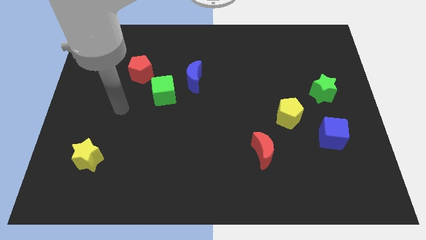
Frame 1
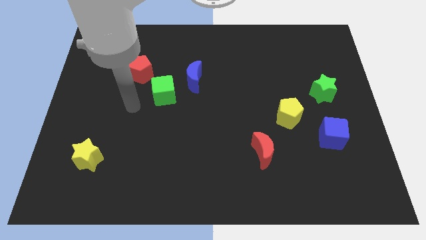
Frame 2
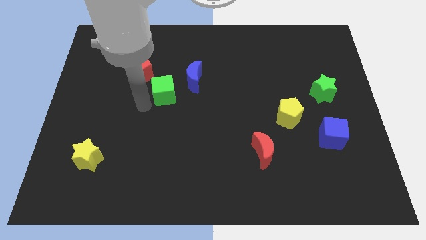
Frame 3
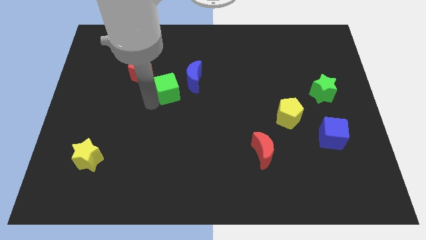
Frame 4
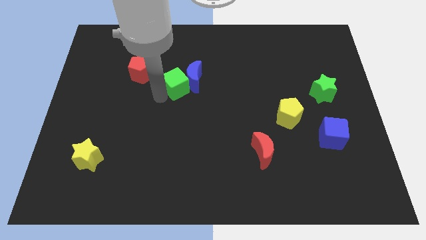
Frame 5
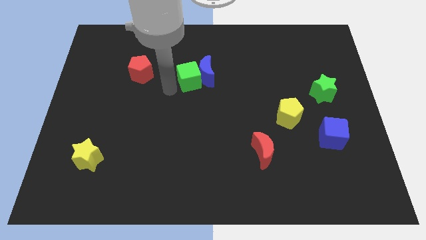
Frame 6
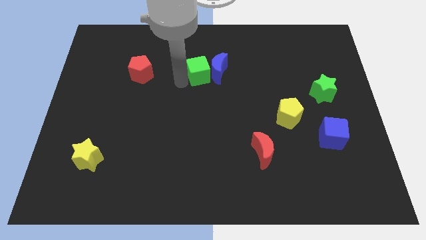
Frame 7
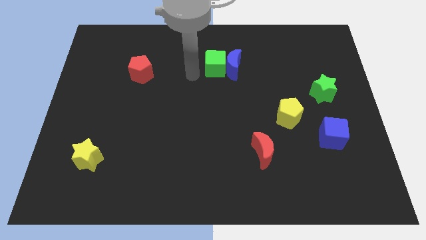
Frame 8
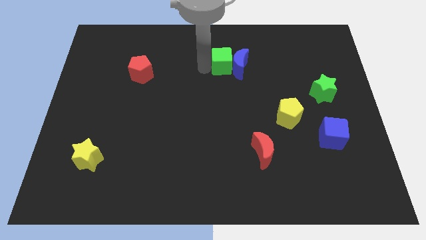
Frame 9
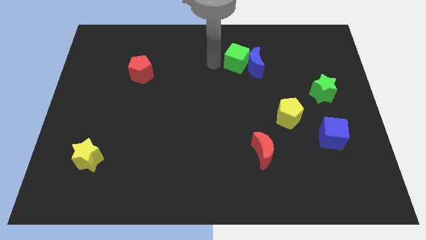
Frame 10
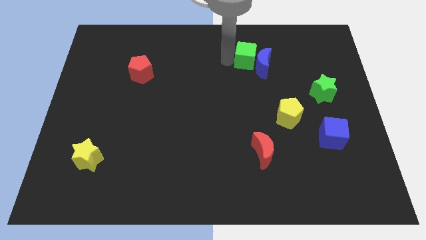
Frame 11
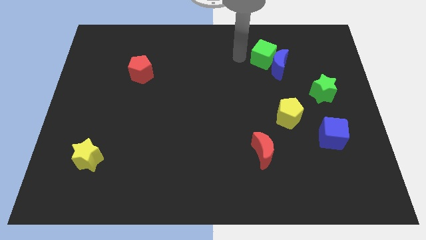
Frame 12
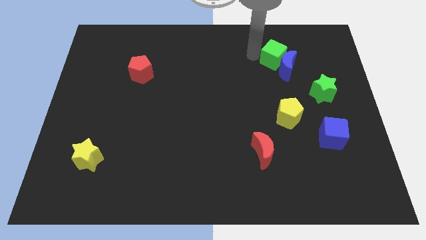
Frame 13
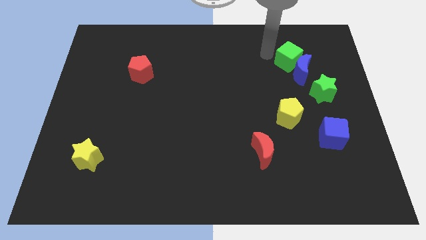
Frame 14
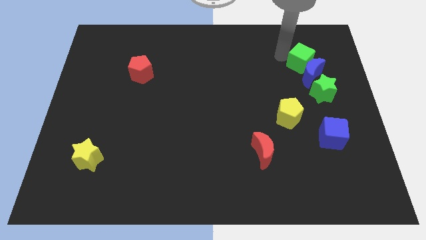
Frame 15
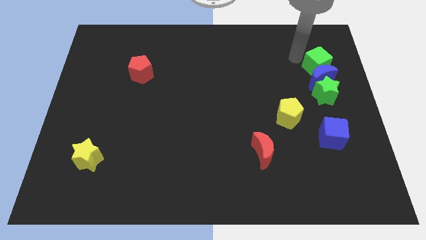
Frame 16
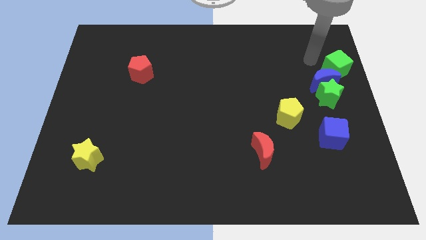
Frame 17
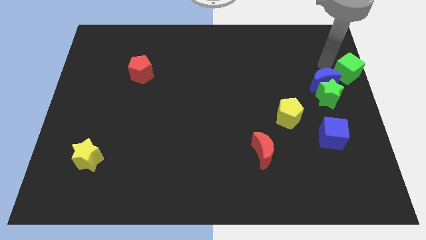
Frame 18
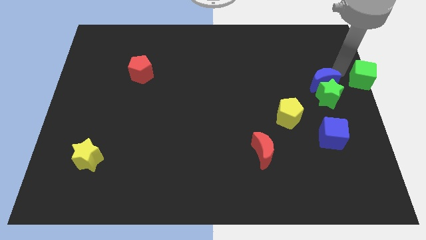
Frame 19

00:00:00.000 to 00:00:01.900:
move the blue moon away from the green cube

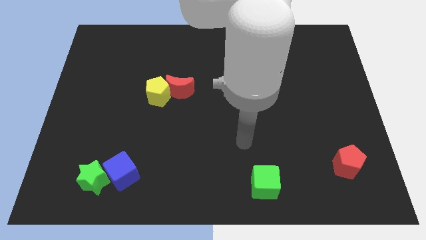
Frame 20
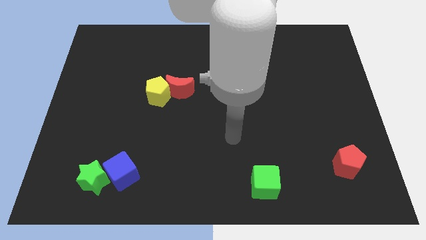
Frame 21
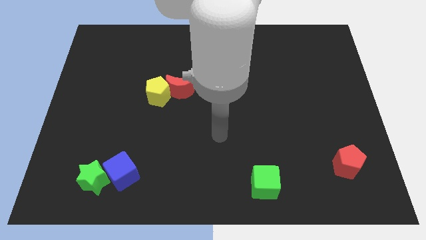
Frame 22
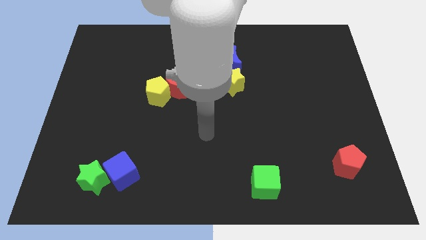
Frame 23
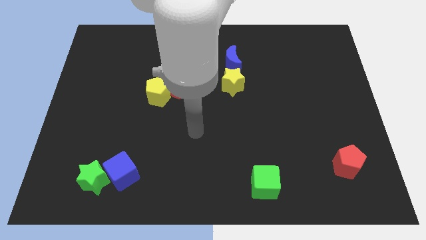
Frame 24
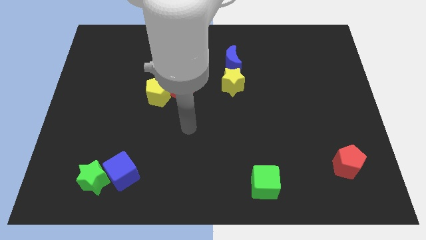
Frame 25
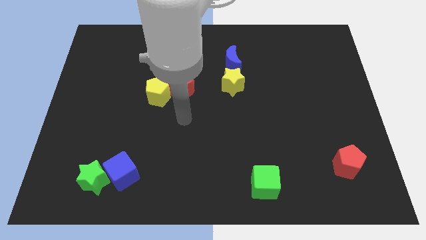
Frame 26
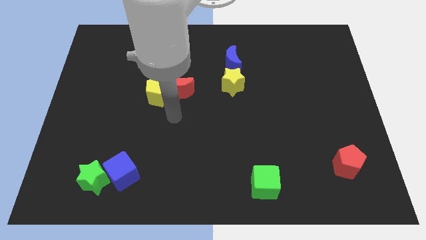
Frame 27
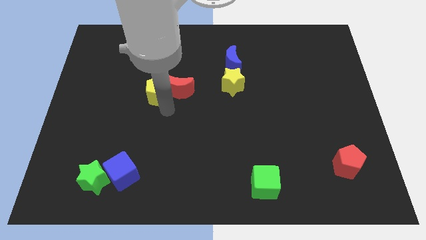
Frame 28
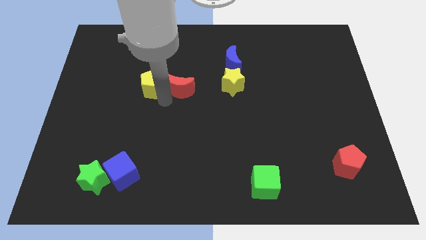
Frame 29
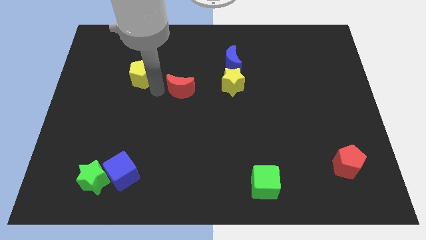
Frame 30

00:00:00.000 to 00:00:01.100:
pull the red moon apart from the yellow pentagon

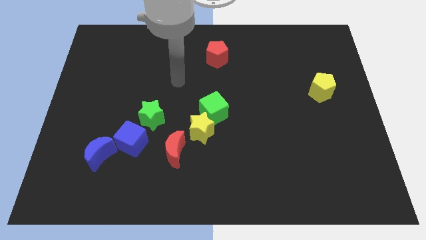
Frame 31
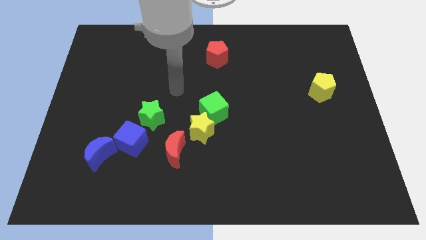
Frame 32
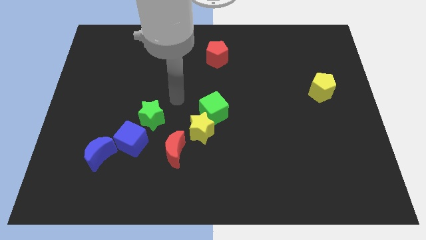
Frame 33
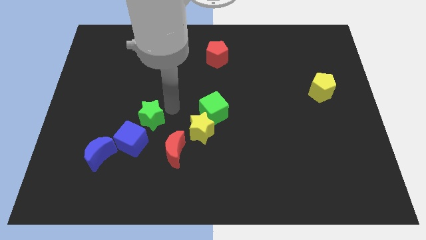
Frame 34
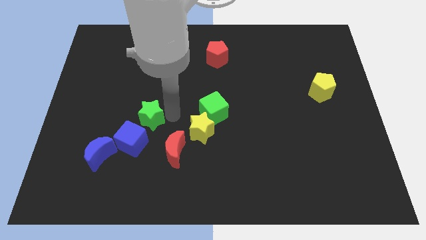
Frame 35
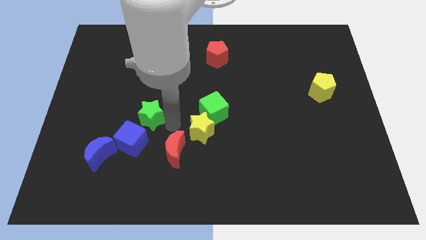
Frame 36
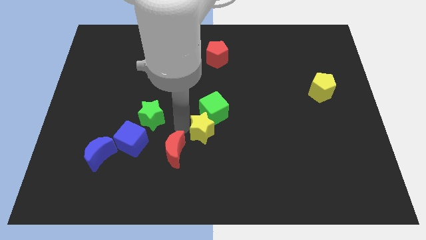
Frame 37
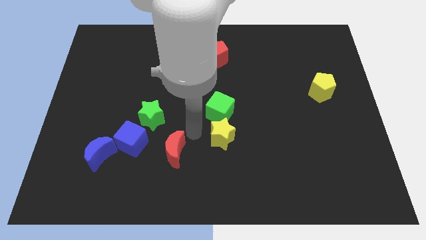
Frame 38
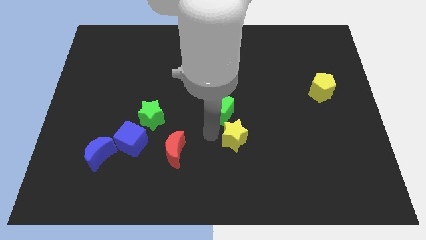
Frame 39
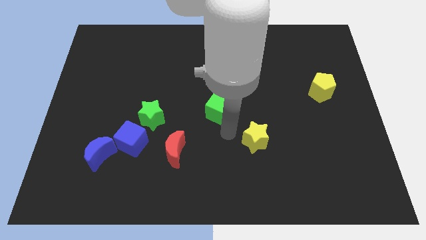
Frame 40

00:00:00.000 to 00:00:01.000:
pull the green cube apart from the yellow star

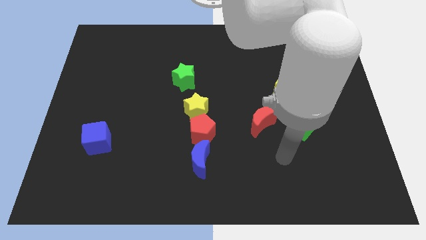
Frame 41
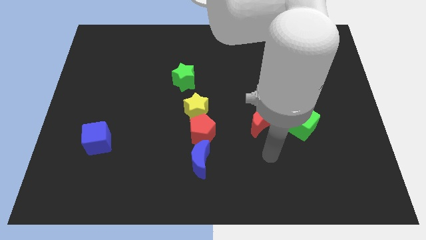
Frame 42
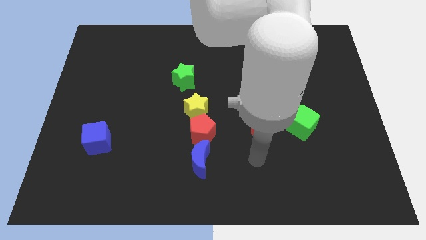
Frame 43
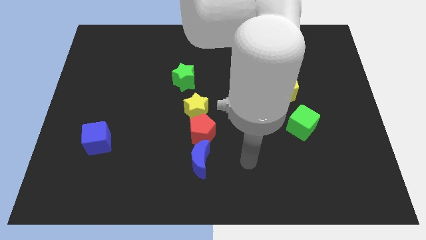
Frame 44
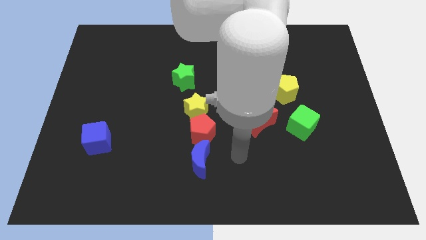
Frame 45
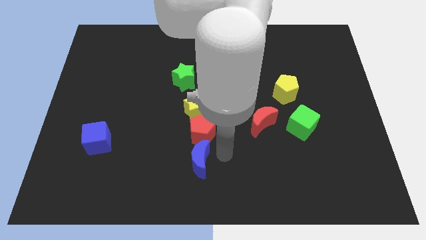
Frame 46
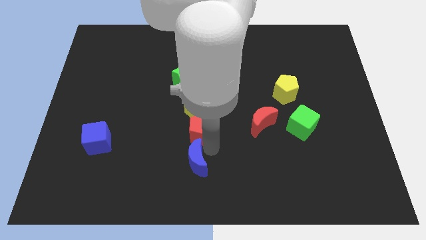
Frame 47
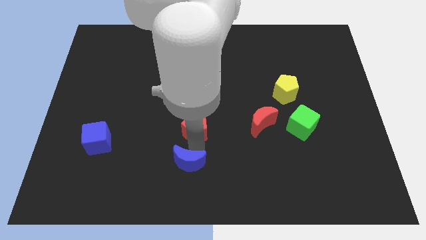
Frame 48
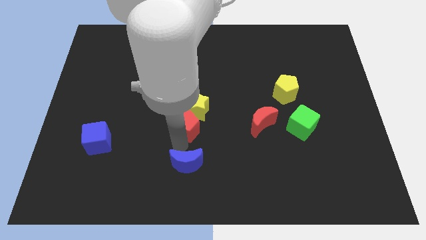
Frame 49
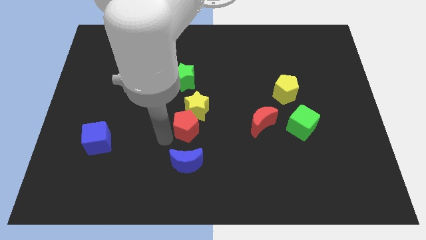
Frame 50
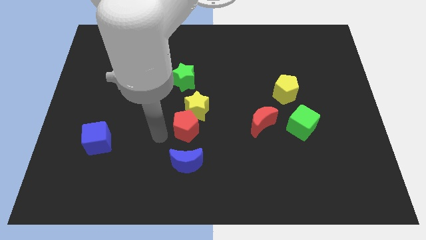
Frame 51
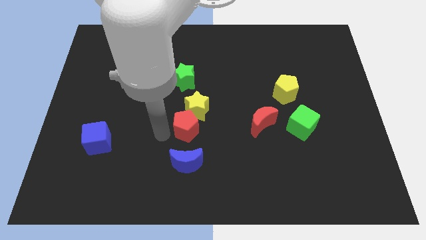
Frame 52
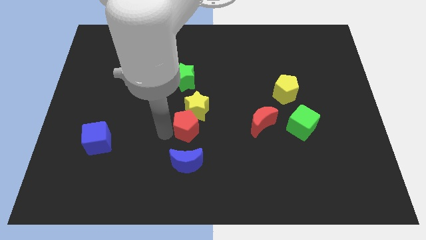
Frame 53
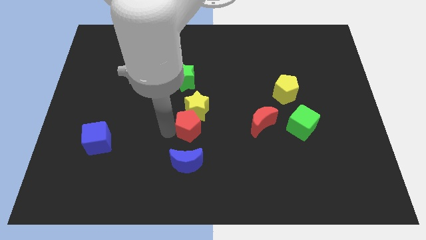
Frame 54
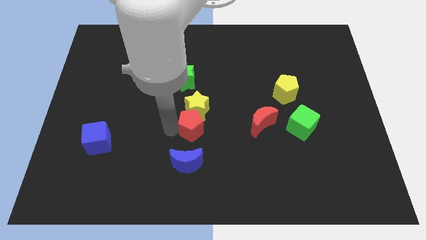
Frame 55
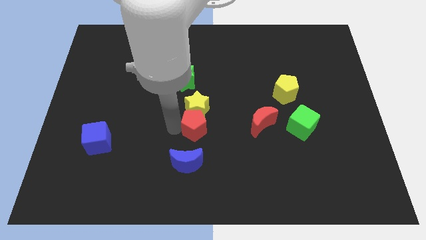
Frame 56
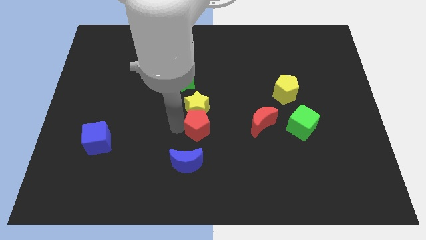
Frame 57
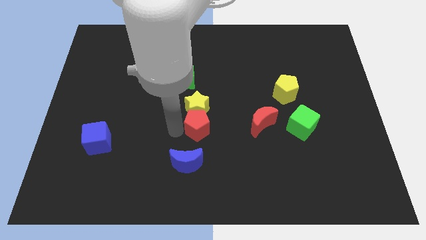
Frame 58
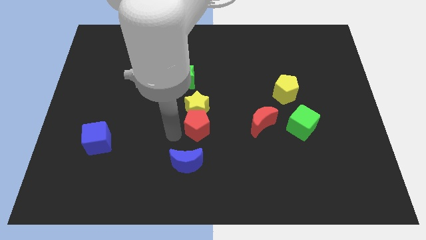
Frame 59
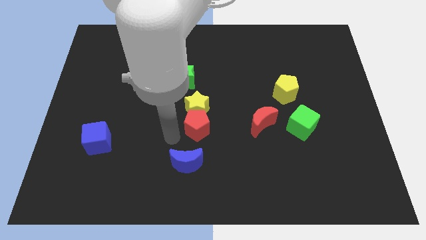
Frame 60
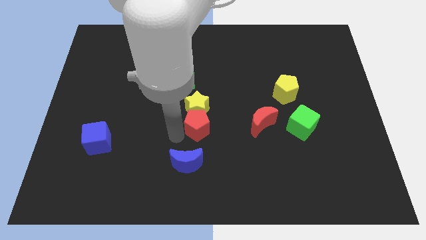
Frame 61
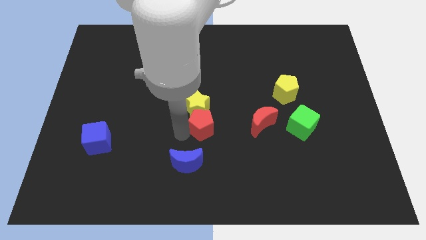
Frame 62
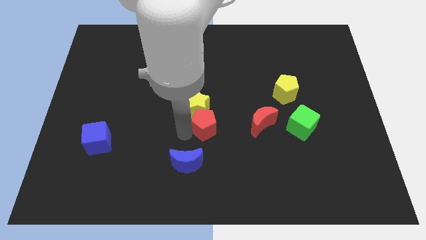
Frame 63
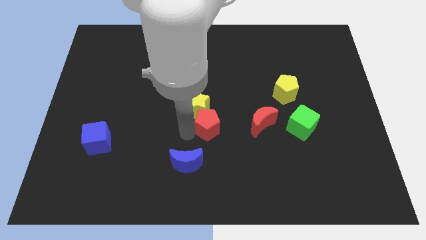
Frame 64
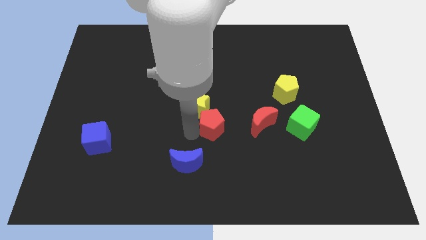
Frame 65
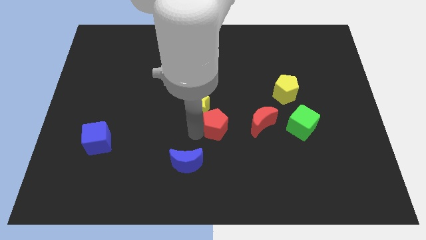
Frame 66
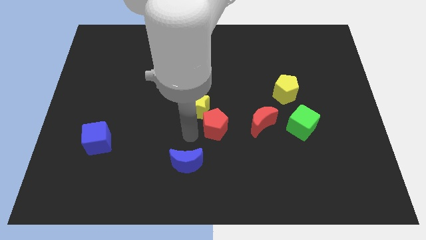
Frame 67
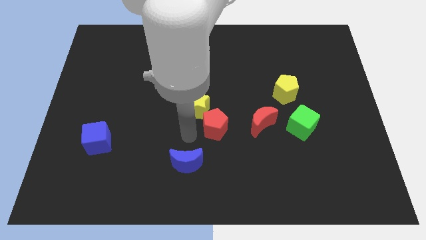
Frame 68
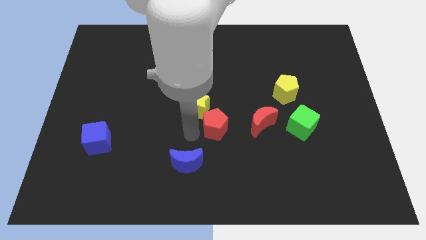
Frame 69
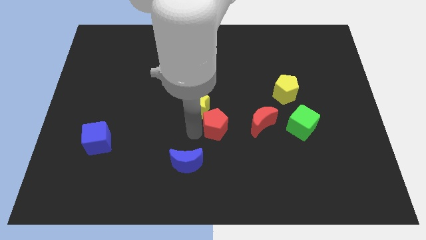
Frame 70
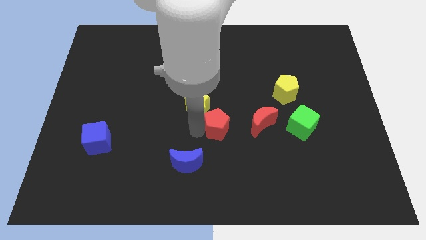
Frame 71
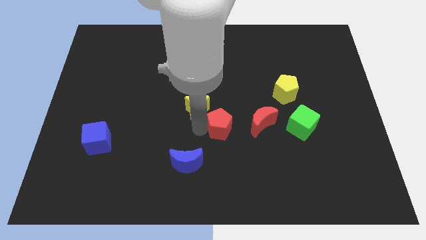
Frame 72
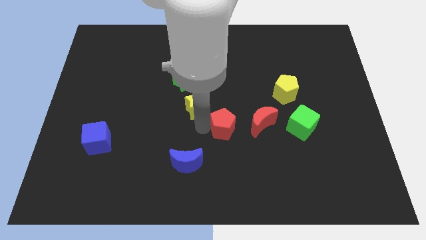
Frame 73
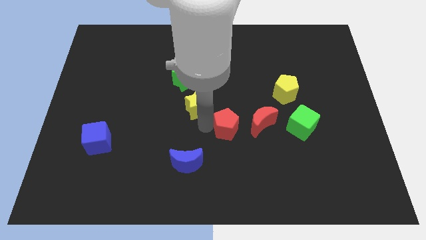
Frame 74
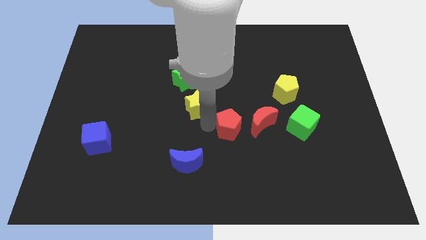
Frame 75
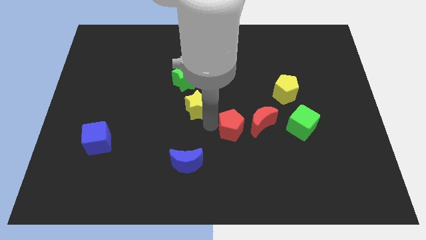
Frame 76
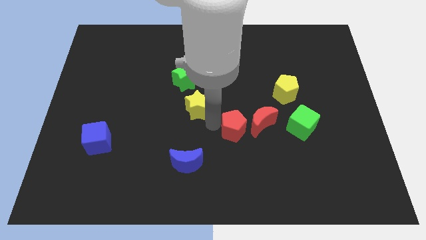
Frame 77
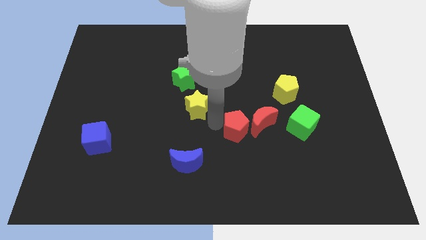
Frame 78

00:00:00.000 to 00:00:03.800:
separate the red pentagon from the yellow star and blue moon

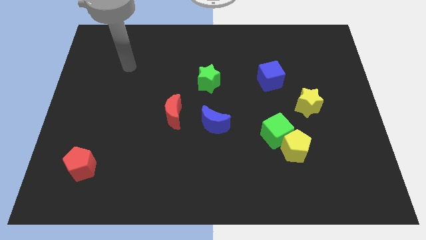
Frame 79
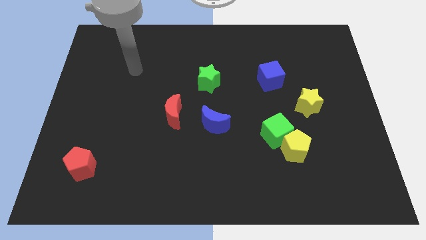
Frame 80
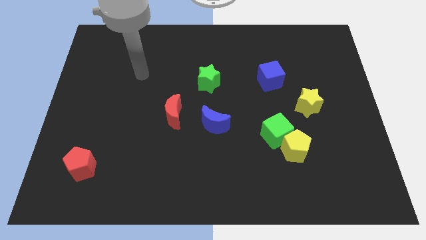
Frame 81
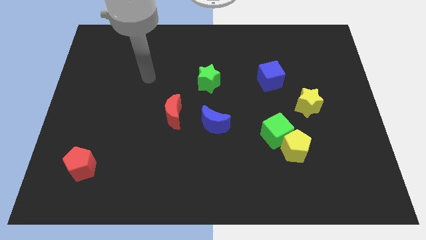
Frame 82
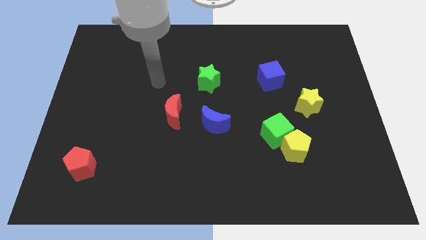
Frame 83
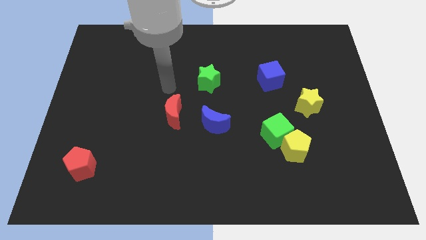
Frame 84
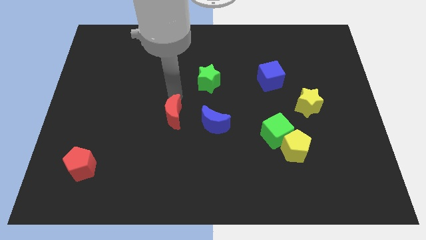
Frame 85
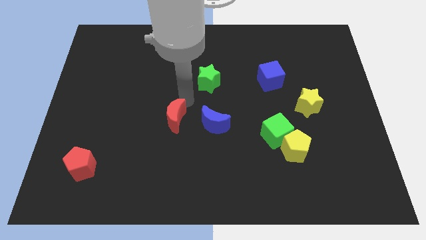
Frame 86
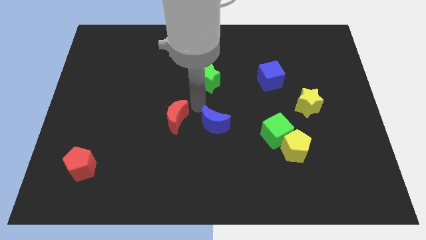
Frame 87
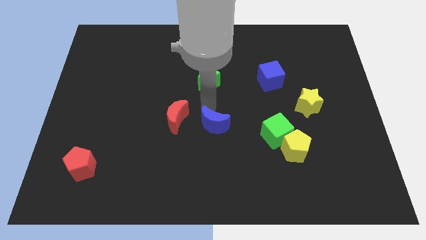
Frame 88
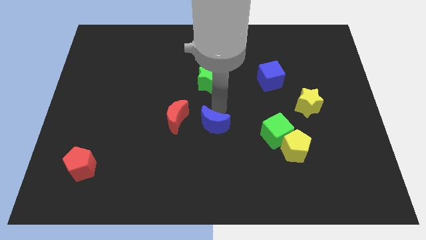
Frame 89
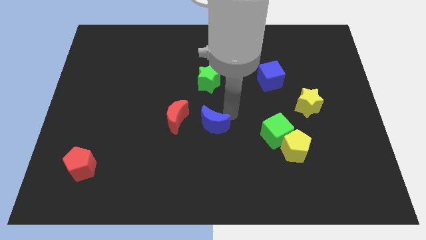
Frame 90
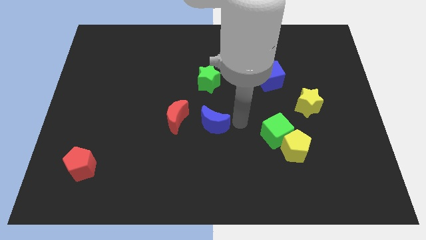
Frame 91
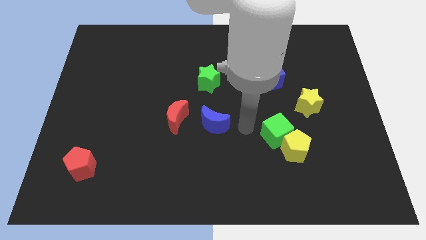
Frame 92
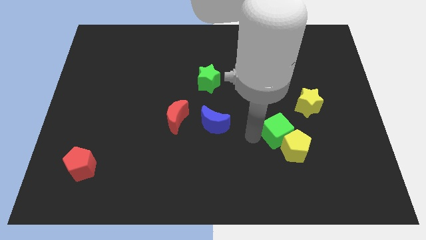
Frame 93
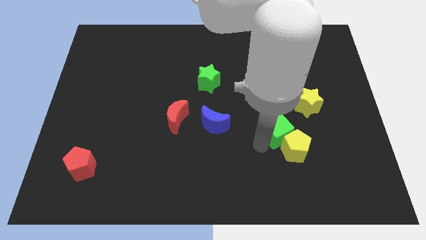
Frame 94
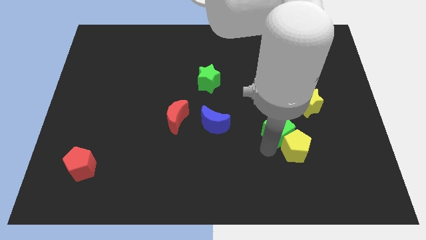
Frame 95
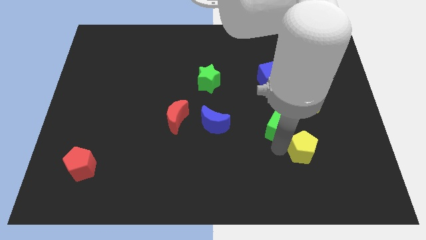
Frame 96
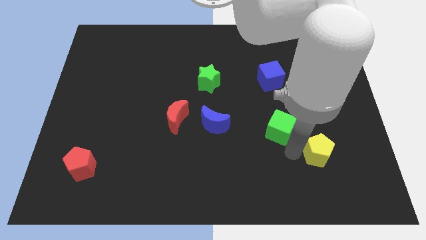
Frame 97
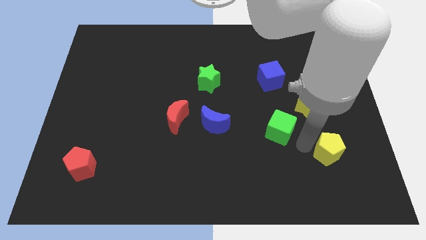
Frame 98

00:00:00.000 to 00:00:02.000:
move the green cube away from the yellow pentagon
